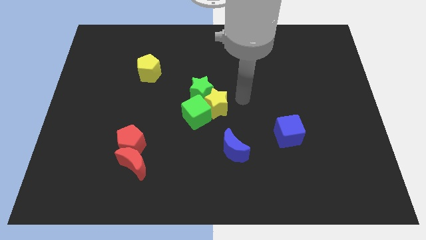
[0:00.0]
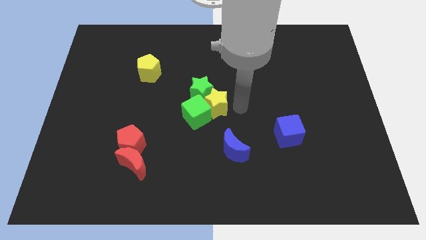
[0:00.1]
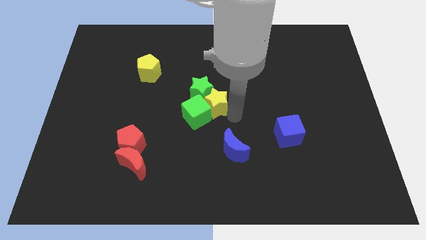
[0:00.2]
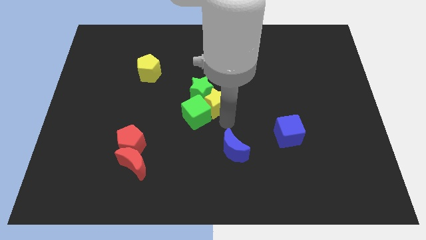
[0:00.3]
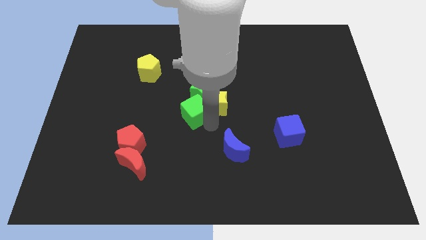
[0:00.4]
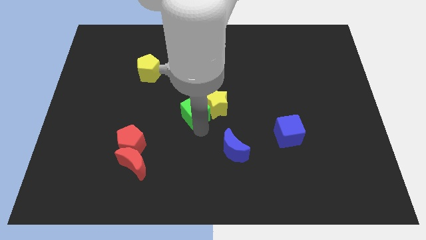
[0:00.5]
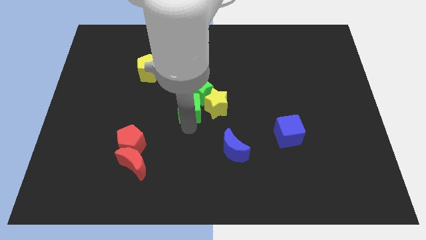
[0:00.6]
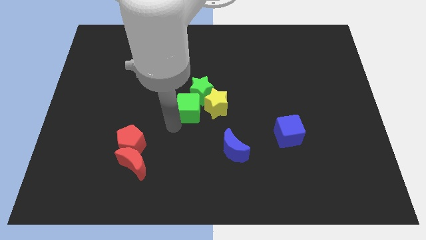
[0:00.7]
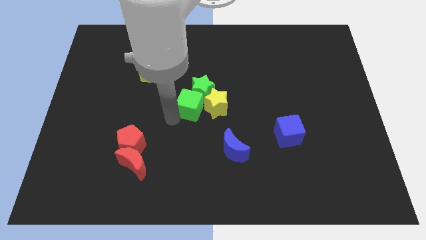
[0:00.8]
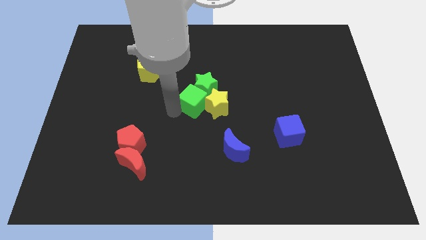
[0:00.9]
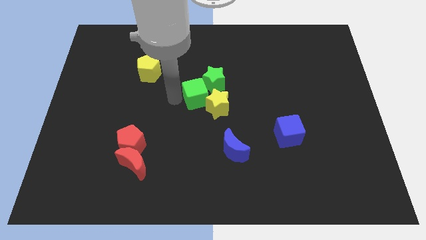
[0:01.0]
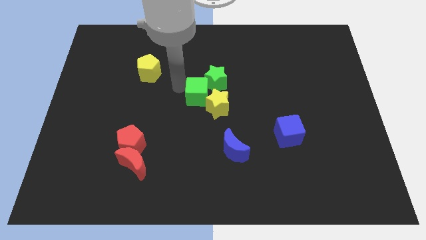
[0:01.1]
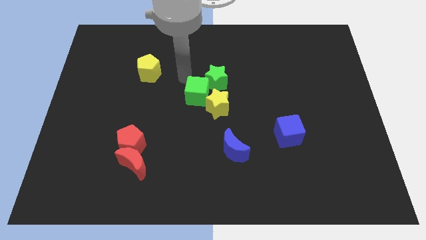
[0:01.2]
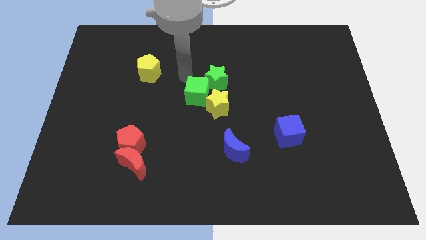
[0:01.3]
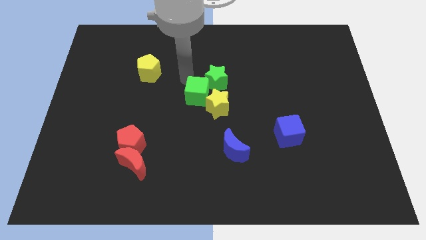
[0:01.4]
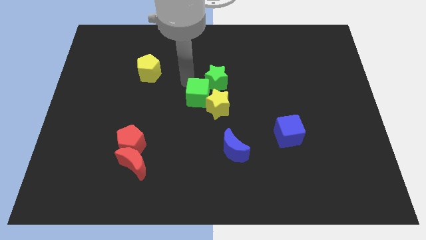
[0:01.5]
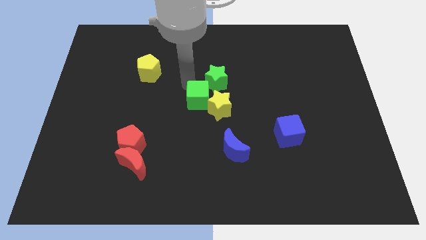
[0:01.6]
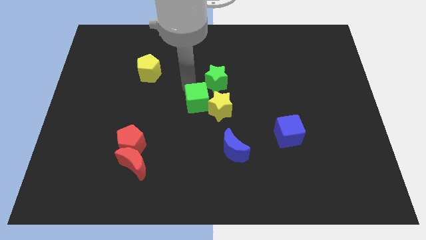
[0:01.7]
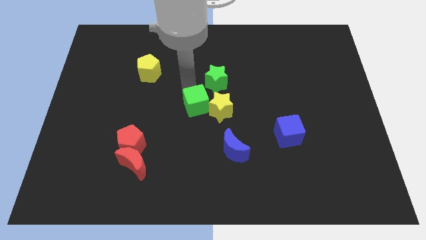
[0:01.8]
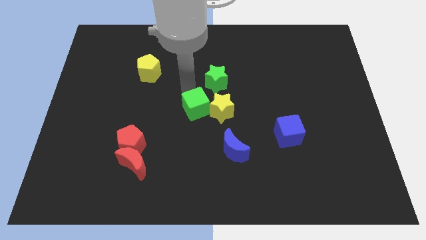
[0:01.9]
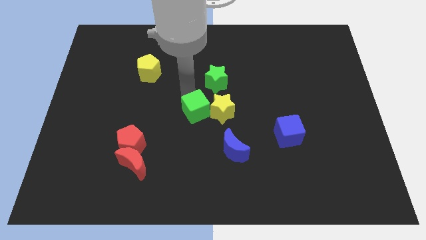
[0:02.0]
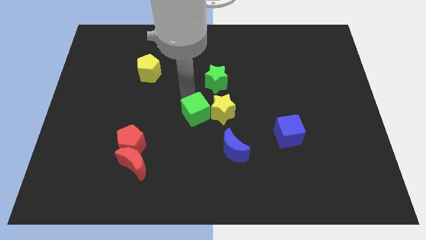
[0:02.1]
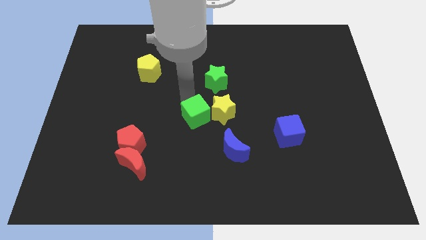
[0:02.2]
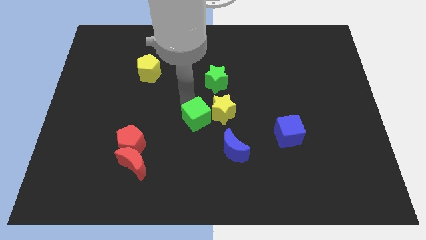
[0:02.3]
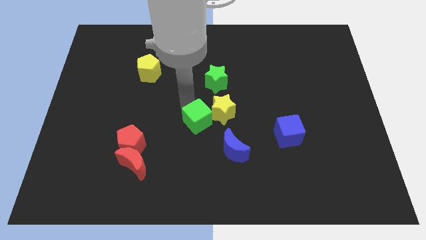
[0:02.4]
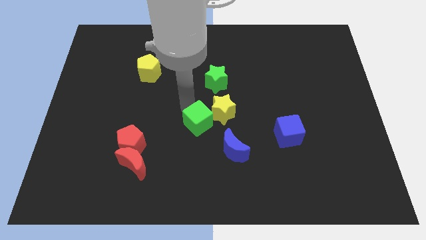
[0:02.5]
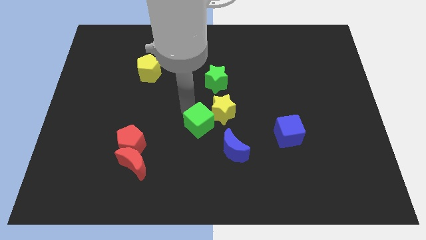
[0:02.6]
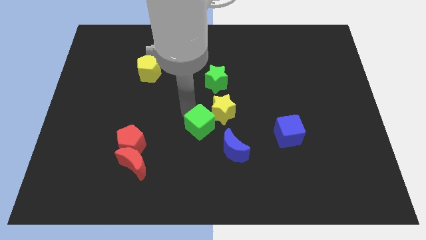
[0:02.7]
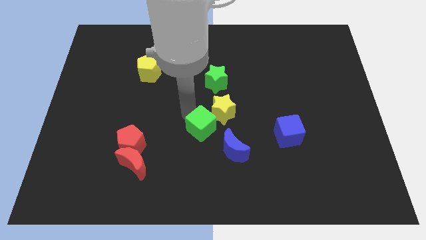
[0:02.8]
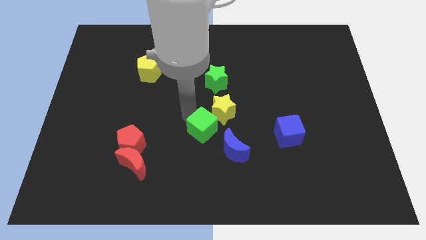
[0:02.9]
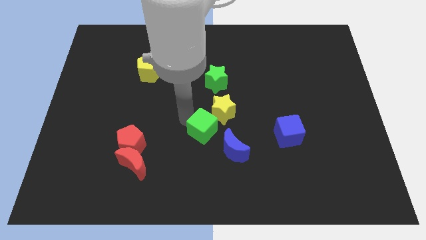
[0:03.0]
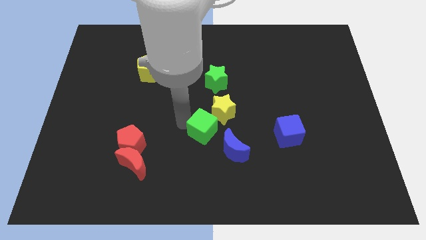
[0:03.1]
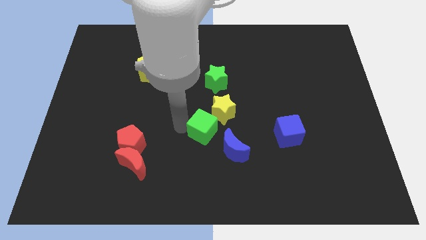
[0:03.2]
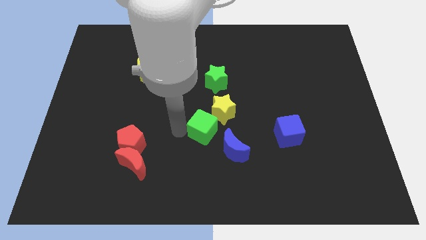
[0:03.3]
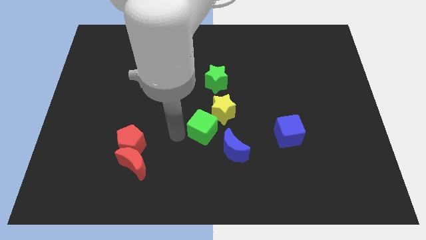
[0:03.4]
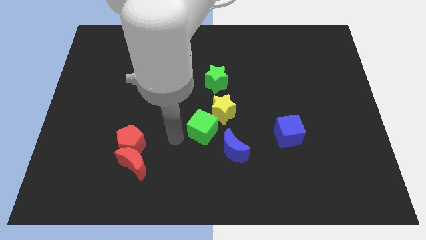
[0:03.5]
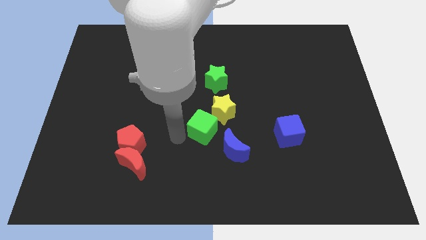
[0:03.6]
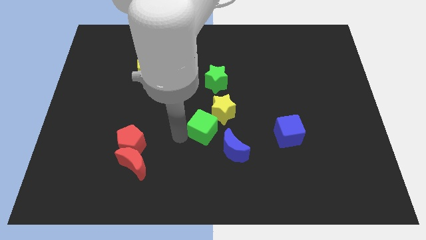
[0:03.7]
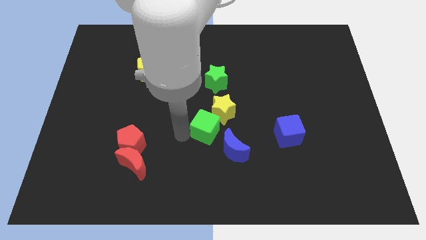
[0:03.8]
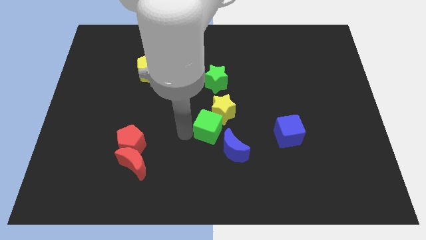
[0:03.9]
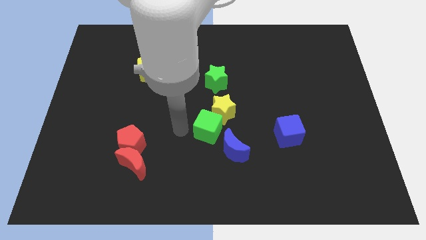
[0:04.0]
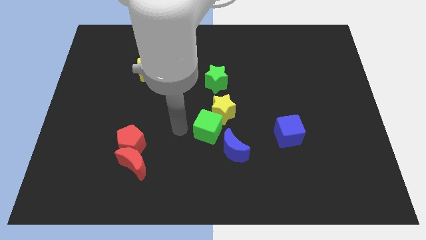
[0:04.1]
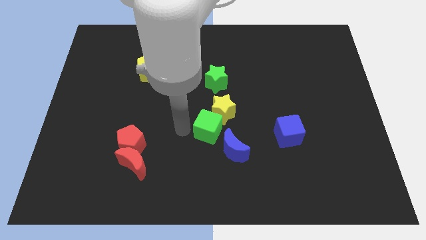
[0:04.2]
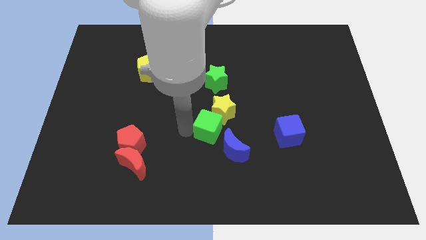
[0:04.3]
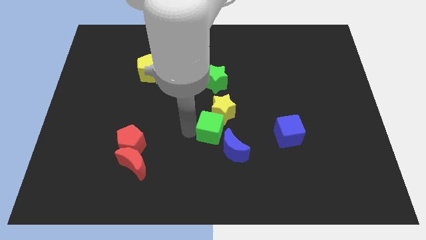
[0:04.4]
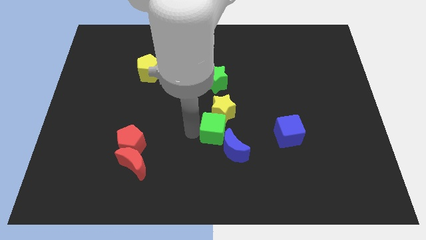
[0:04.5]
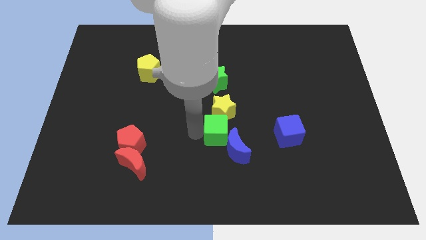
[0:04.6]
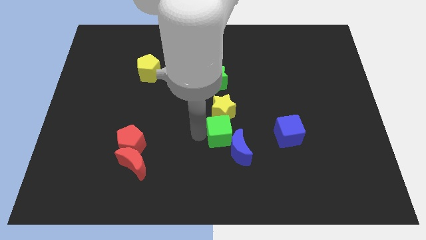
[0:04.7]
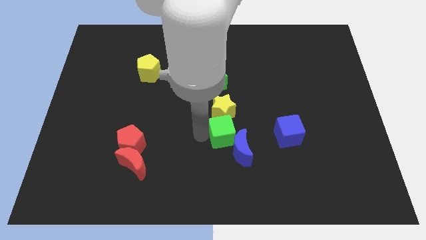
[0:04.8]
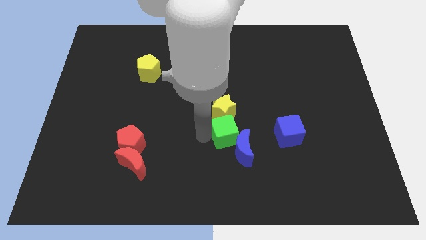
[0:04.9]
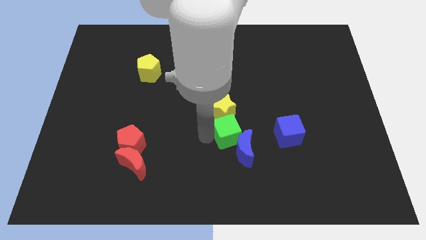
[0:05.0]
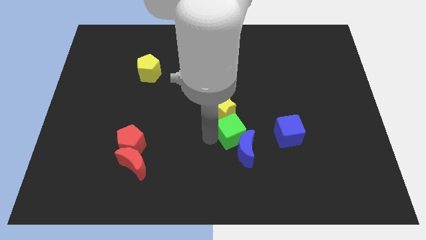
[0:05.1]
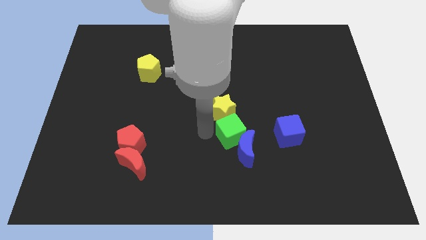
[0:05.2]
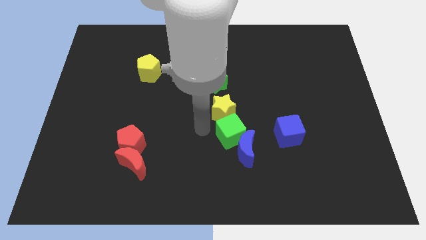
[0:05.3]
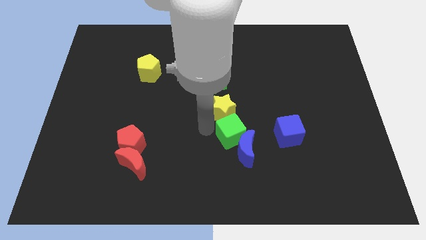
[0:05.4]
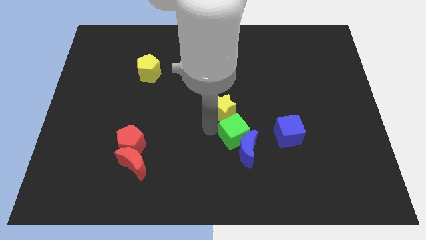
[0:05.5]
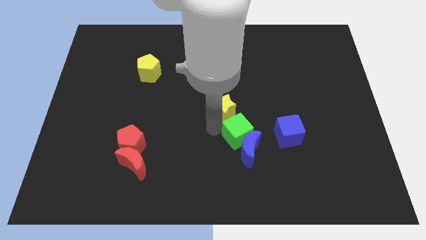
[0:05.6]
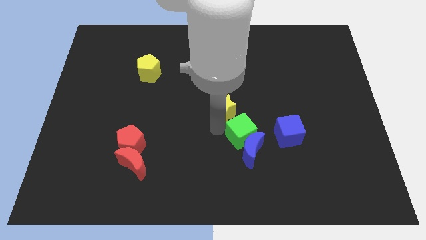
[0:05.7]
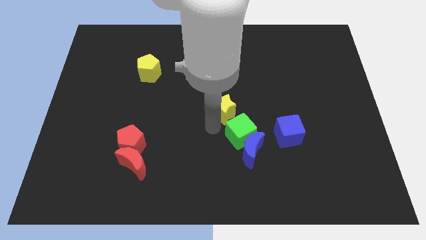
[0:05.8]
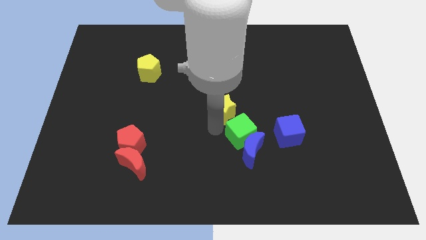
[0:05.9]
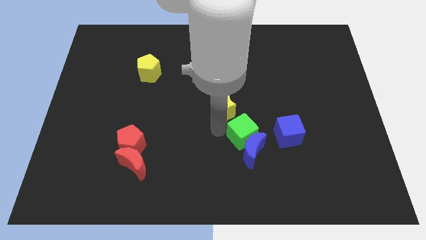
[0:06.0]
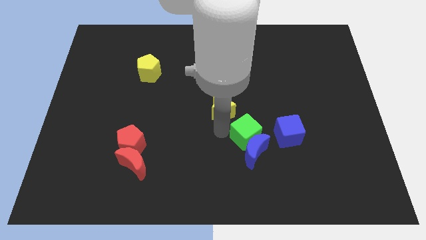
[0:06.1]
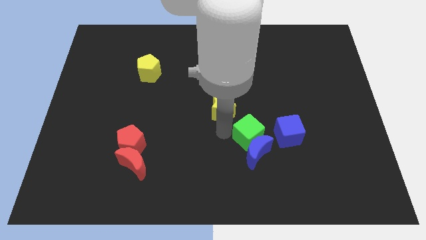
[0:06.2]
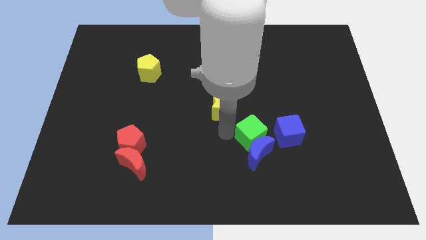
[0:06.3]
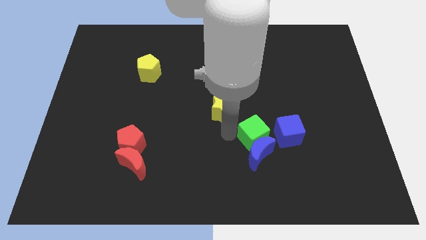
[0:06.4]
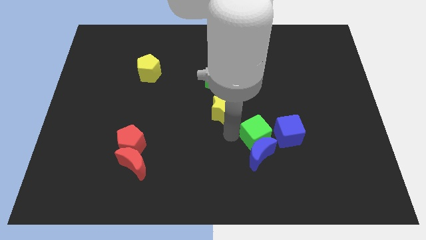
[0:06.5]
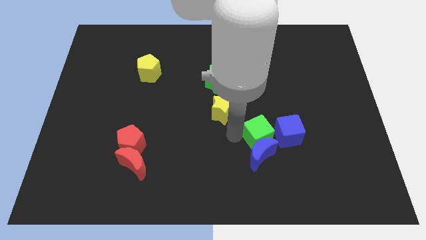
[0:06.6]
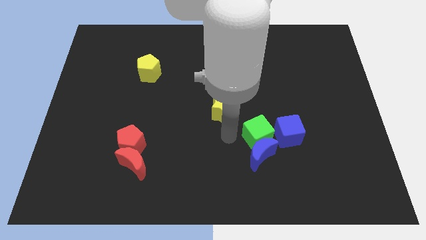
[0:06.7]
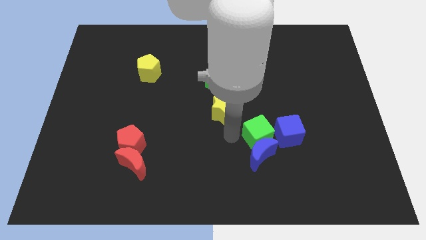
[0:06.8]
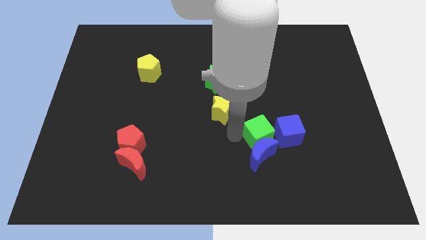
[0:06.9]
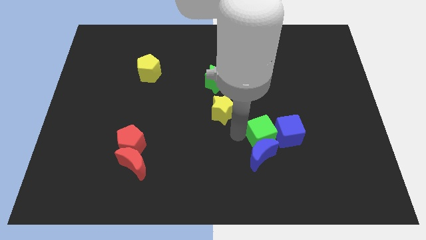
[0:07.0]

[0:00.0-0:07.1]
push the green cube to the blue cube

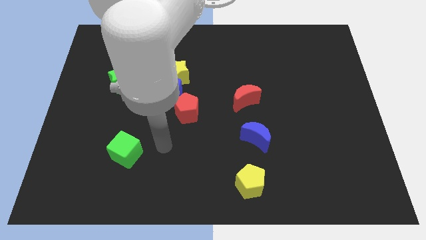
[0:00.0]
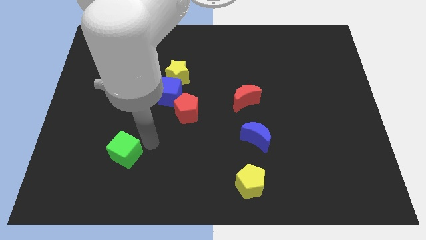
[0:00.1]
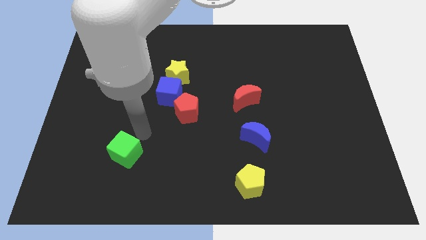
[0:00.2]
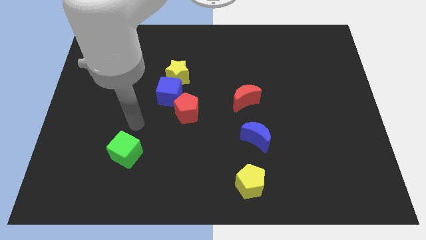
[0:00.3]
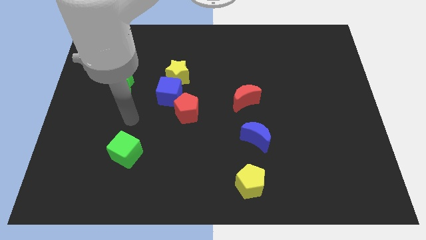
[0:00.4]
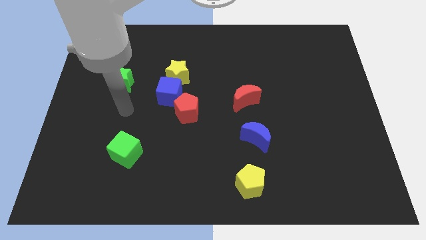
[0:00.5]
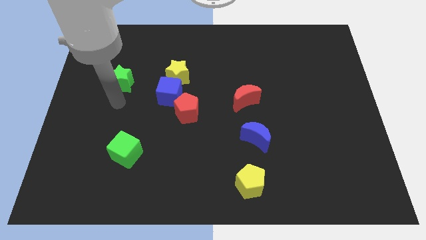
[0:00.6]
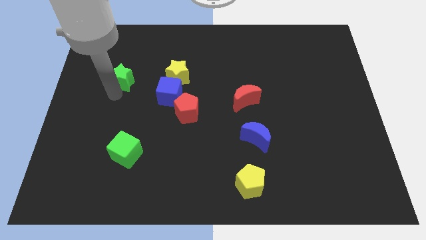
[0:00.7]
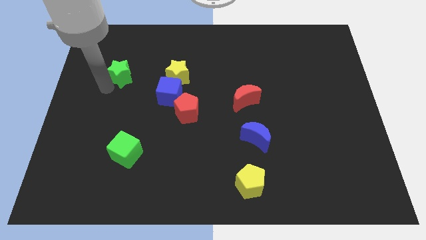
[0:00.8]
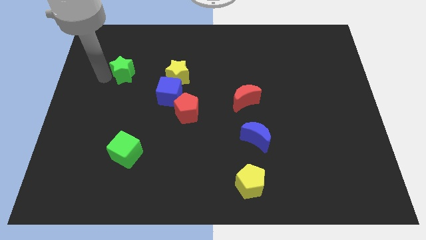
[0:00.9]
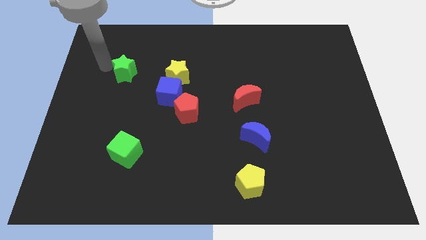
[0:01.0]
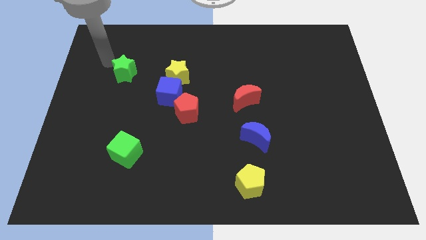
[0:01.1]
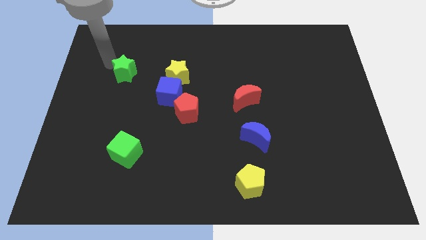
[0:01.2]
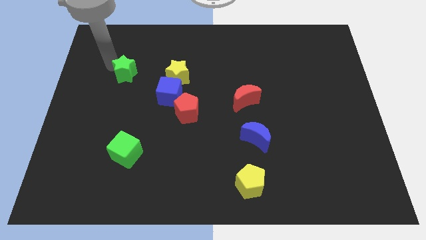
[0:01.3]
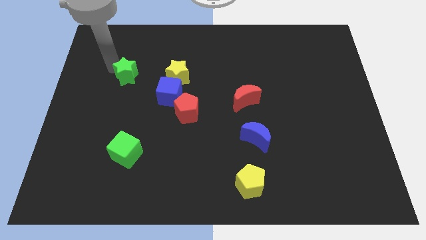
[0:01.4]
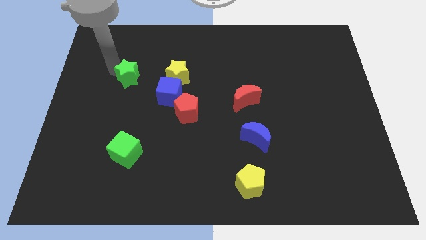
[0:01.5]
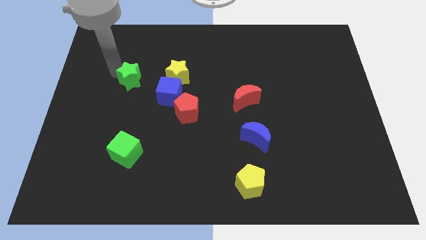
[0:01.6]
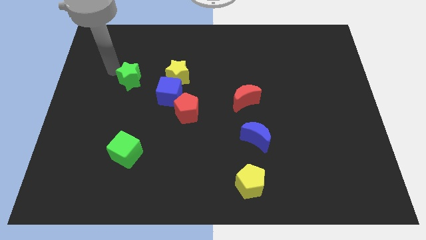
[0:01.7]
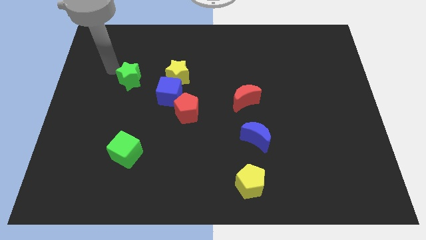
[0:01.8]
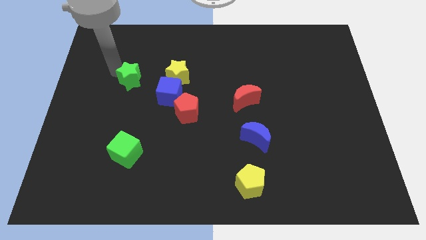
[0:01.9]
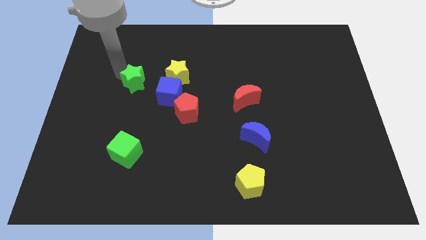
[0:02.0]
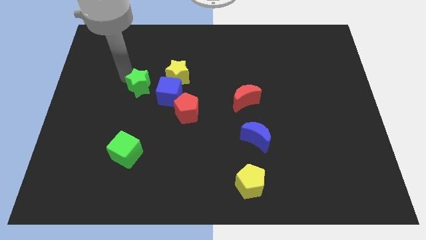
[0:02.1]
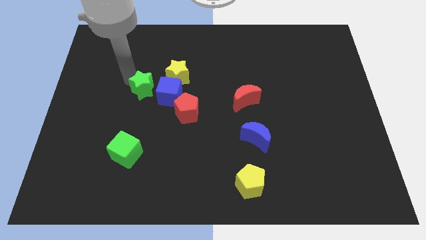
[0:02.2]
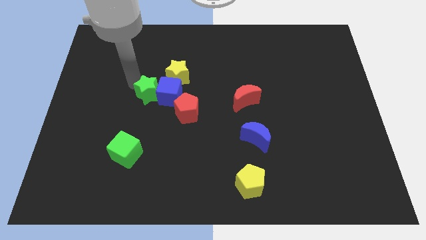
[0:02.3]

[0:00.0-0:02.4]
slide the green star close to the blue cube
